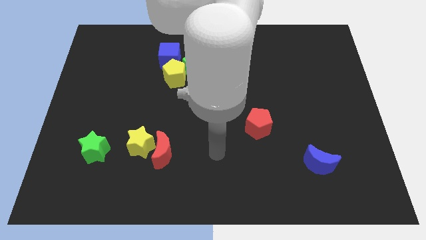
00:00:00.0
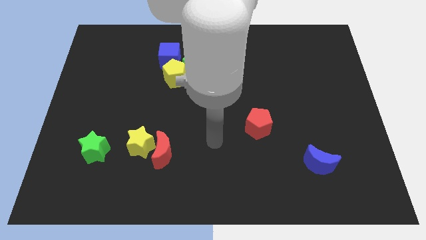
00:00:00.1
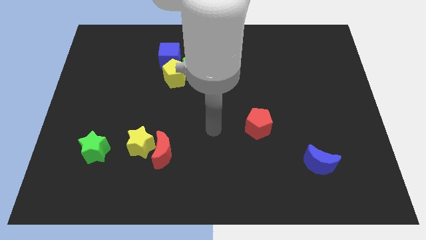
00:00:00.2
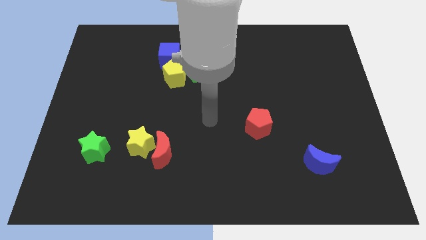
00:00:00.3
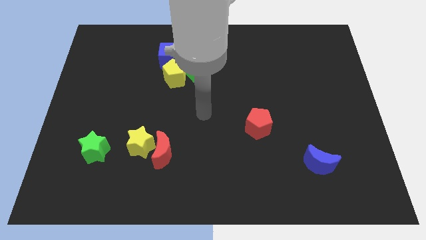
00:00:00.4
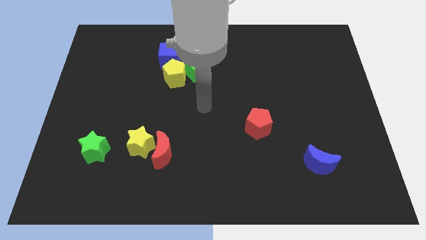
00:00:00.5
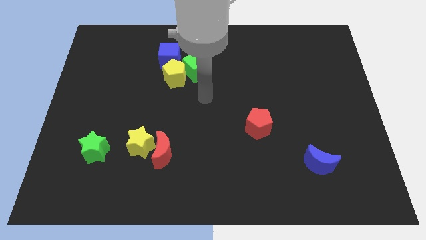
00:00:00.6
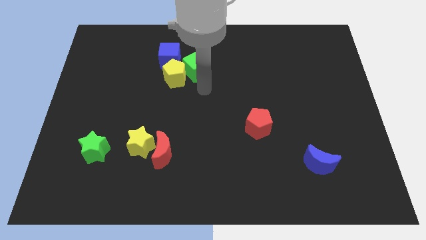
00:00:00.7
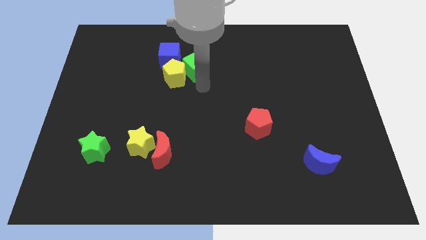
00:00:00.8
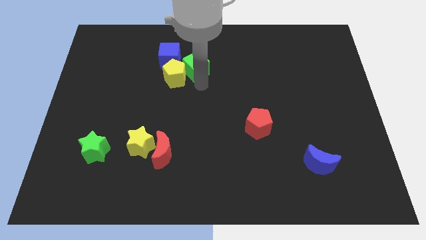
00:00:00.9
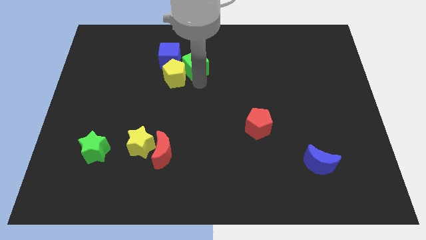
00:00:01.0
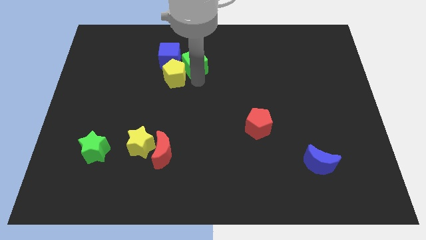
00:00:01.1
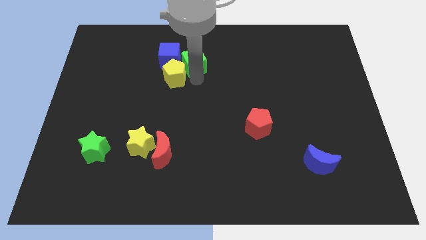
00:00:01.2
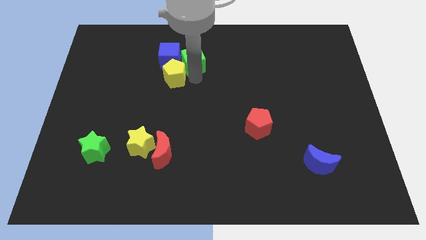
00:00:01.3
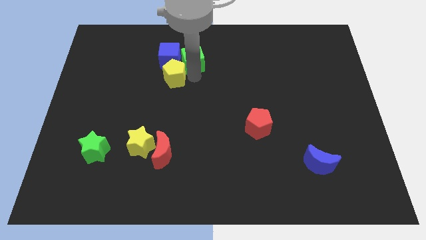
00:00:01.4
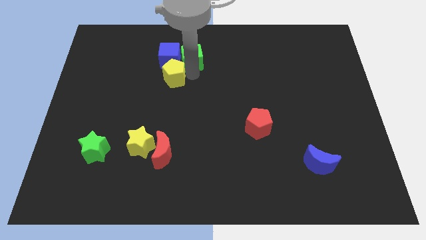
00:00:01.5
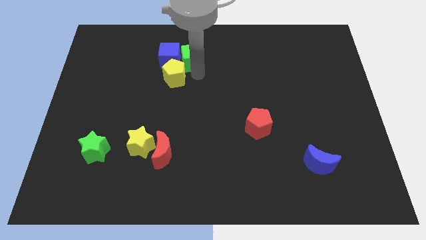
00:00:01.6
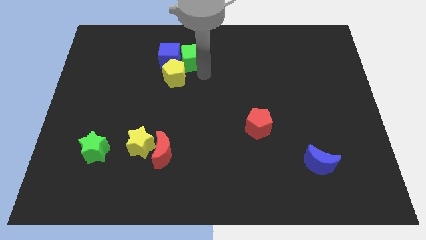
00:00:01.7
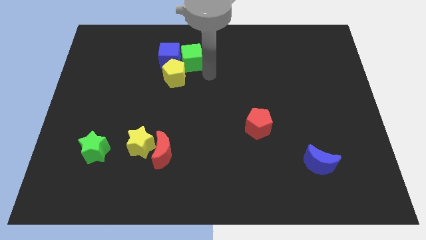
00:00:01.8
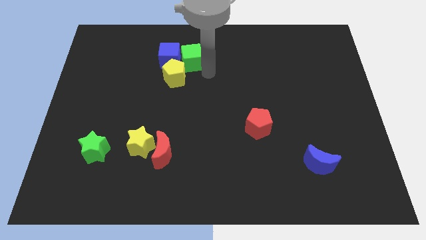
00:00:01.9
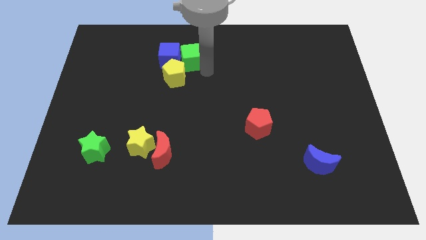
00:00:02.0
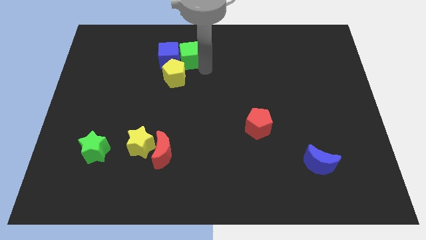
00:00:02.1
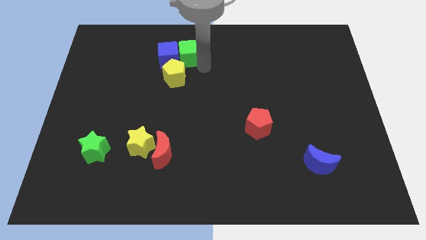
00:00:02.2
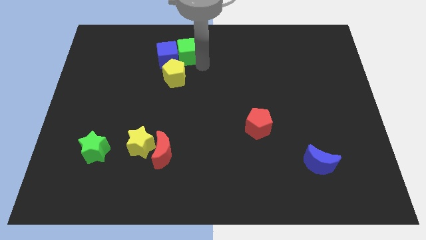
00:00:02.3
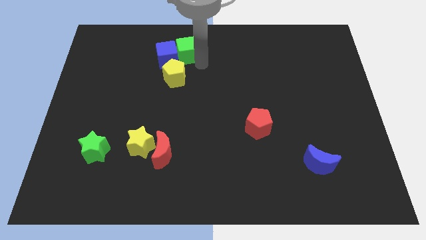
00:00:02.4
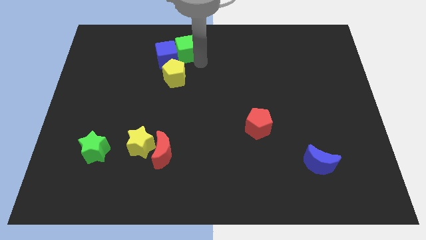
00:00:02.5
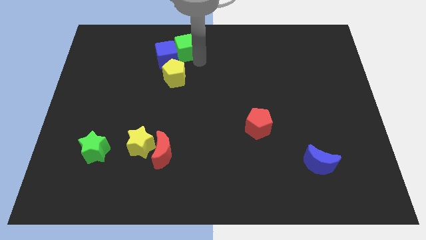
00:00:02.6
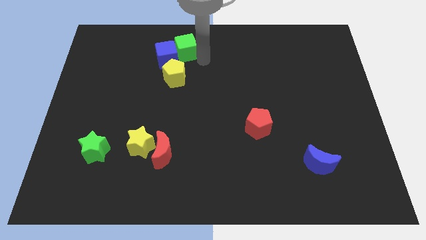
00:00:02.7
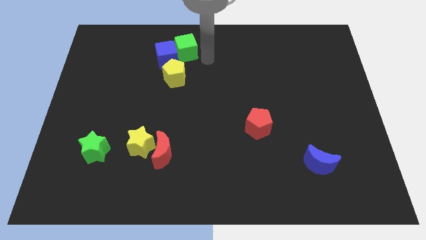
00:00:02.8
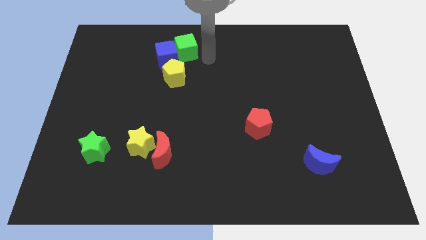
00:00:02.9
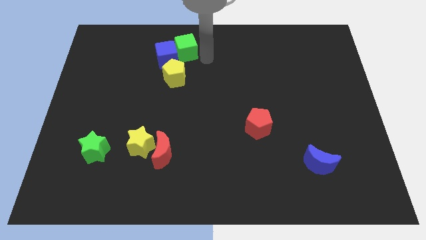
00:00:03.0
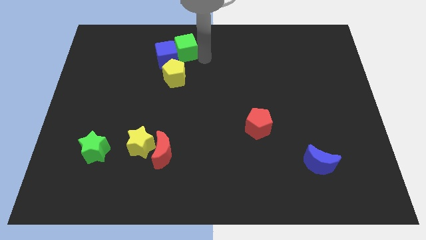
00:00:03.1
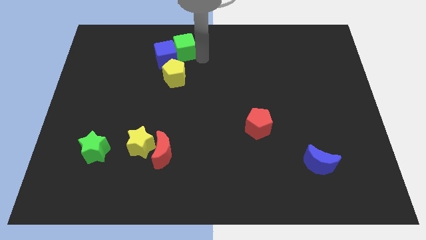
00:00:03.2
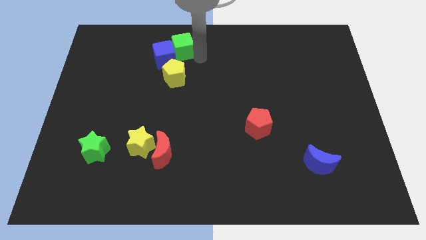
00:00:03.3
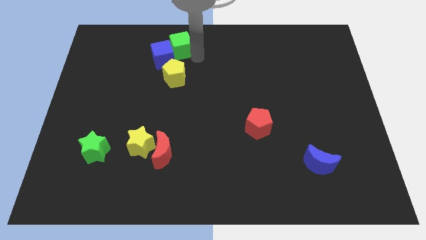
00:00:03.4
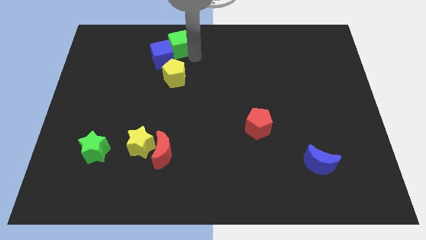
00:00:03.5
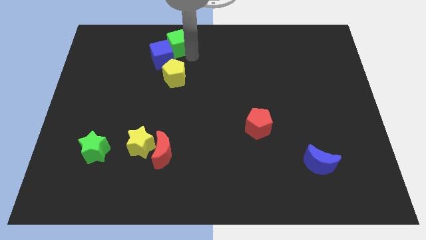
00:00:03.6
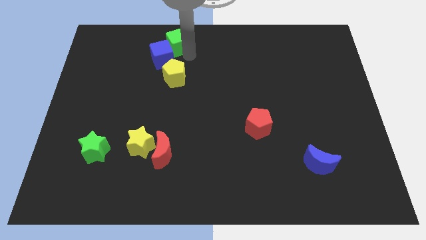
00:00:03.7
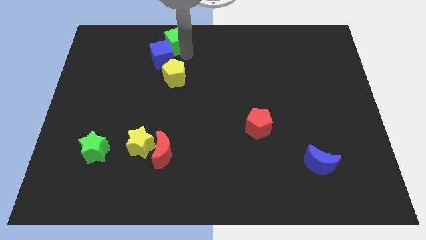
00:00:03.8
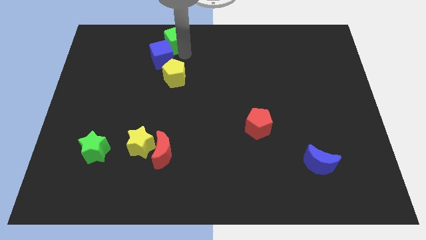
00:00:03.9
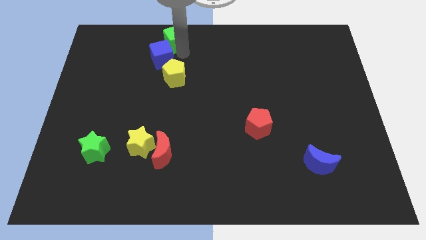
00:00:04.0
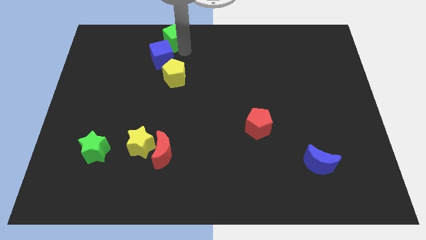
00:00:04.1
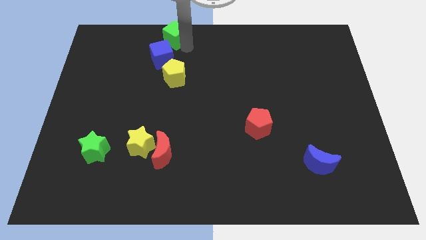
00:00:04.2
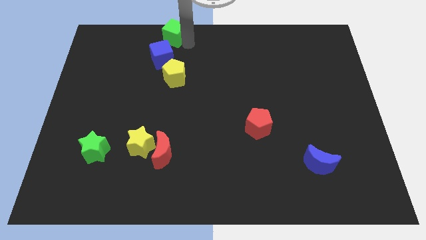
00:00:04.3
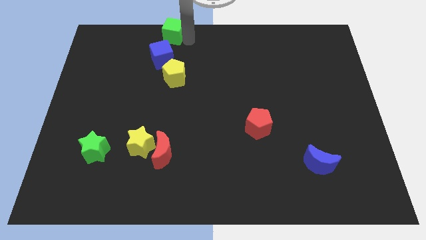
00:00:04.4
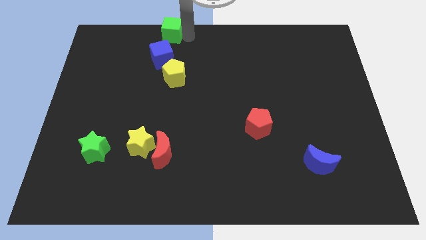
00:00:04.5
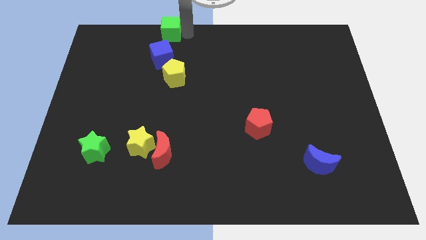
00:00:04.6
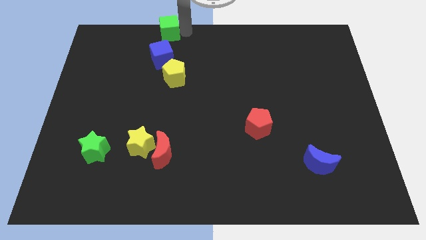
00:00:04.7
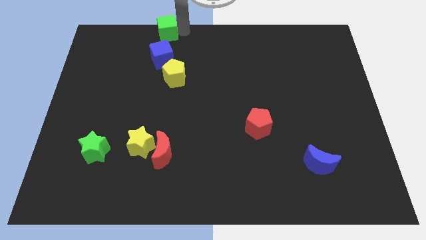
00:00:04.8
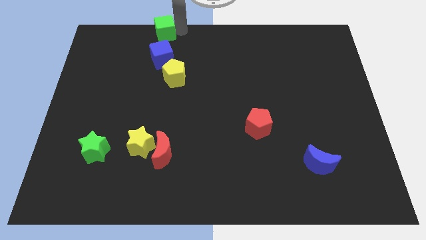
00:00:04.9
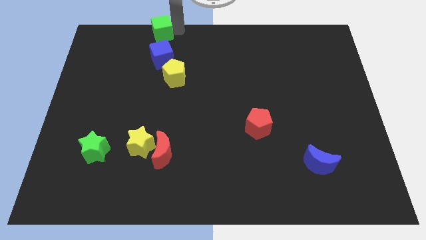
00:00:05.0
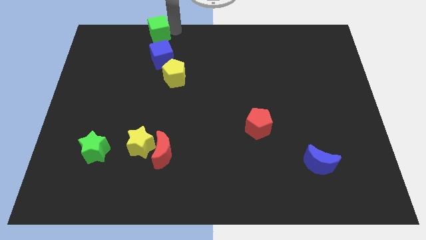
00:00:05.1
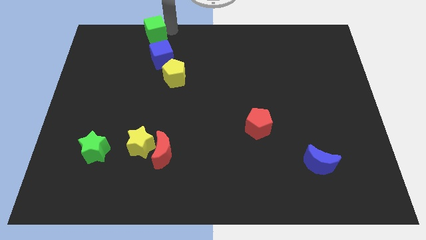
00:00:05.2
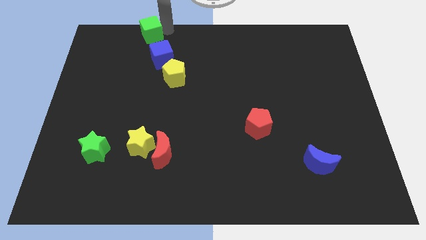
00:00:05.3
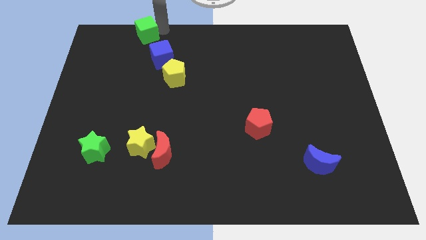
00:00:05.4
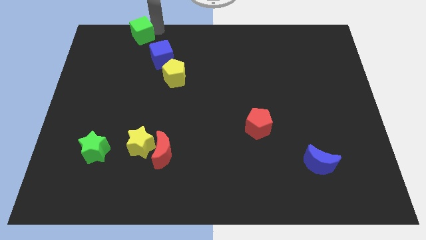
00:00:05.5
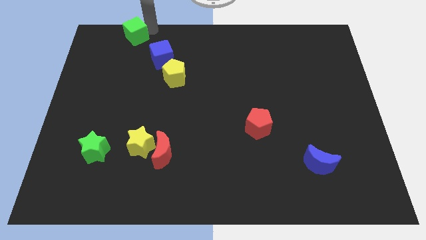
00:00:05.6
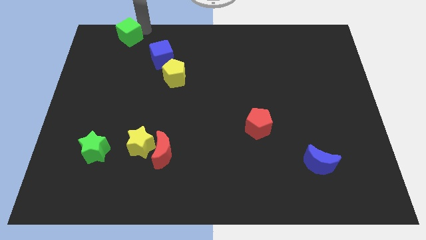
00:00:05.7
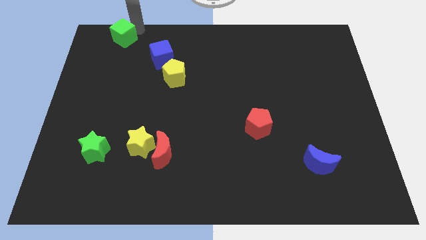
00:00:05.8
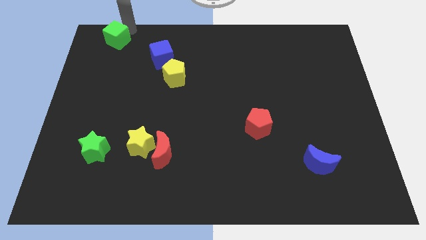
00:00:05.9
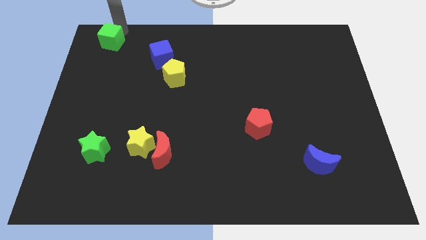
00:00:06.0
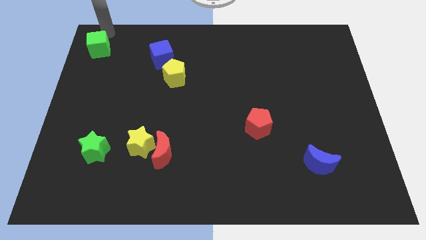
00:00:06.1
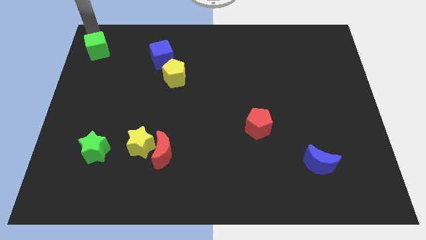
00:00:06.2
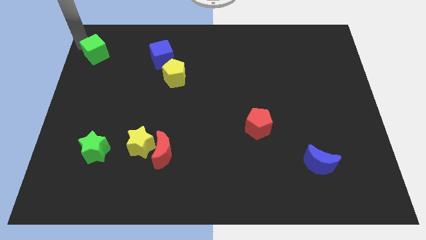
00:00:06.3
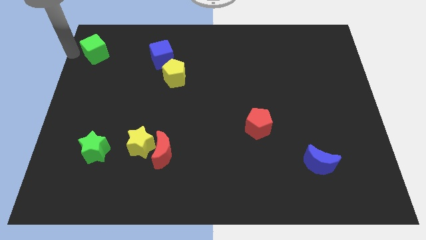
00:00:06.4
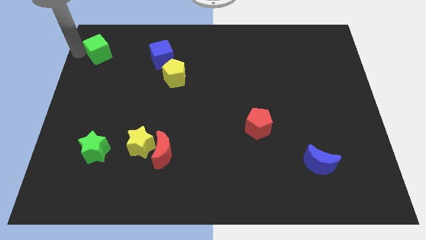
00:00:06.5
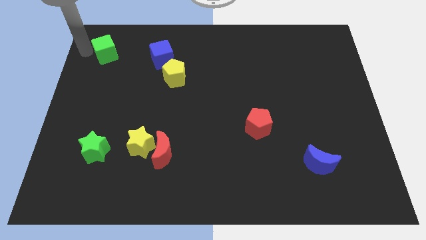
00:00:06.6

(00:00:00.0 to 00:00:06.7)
slide the green cube left of the blue cube
